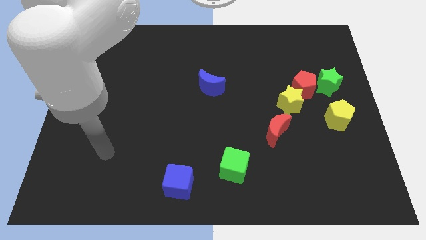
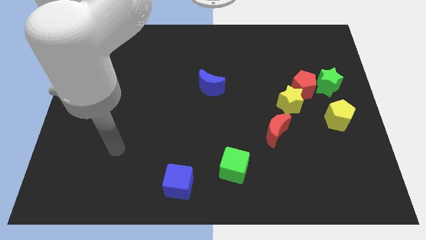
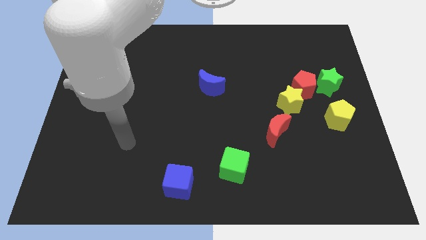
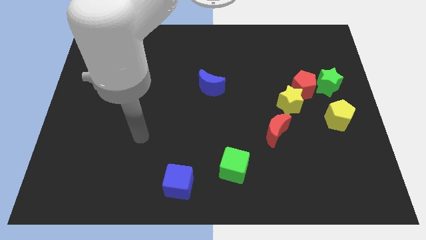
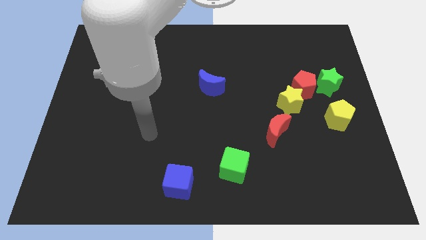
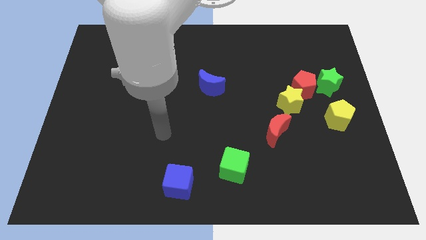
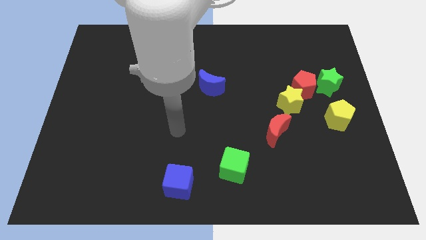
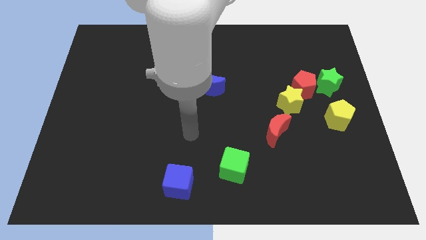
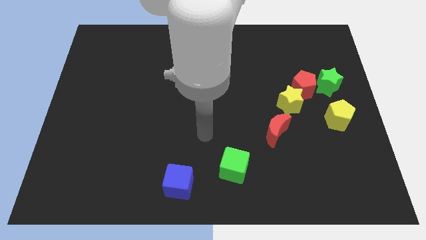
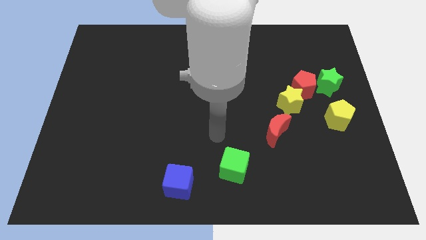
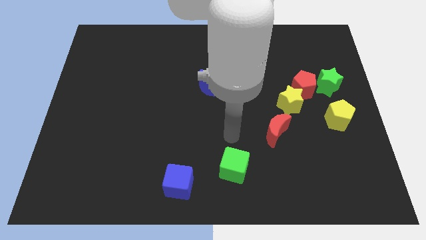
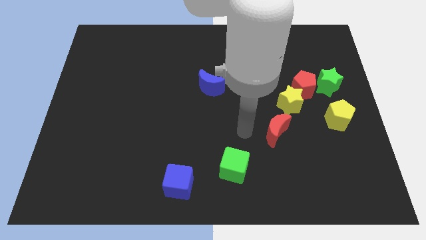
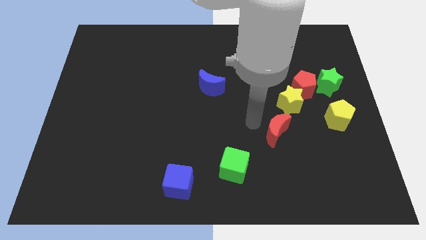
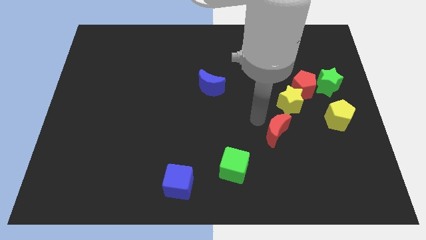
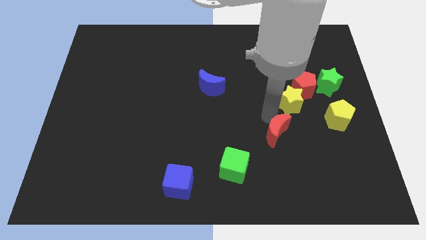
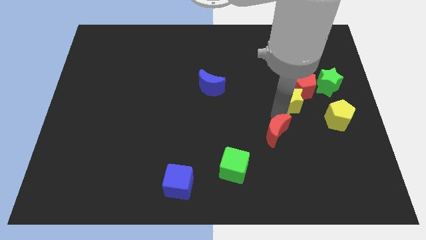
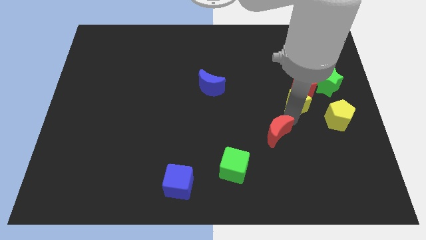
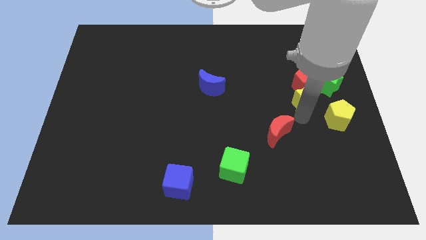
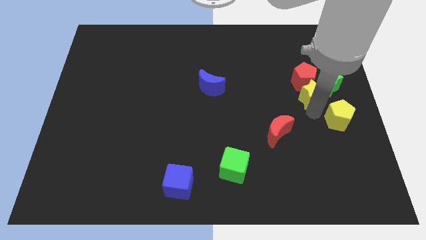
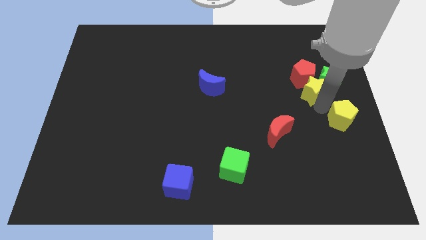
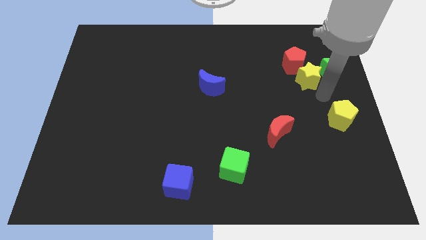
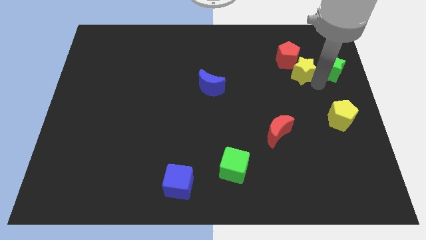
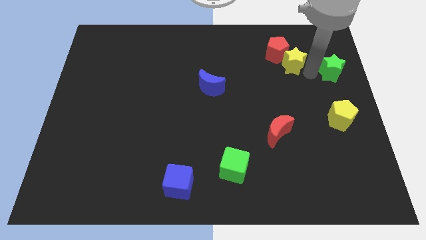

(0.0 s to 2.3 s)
separate the red pentagon from the yellow star and green star

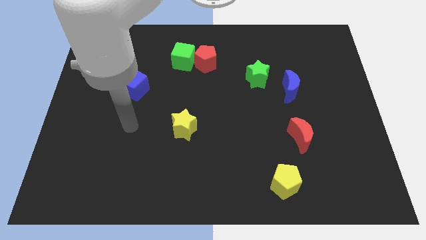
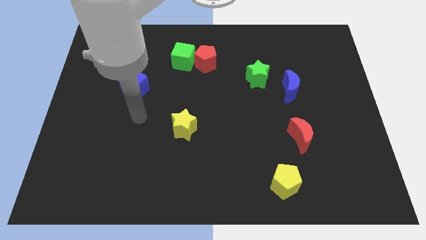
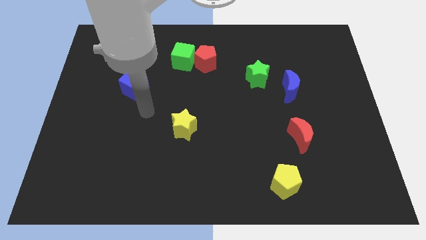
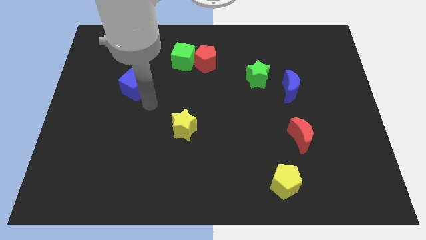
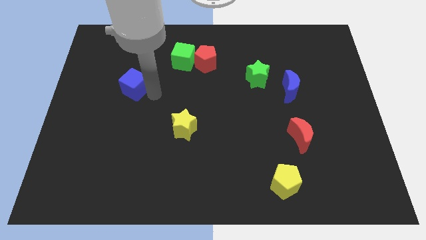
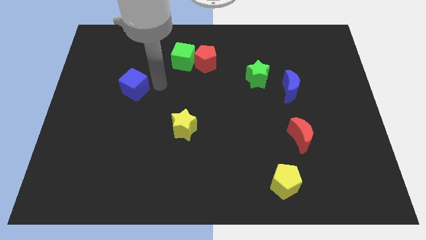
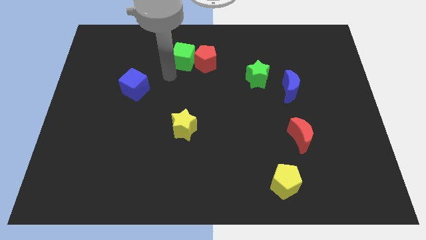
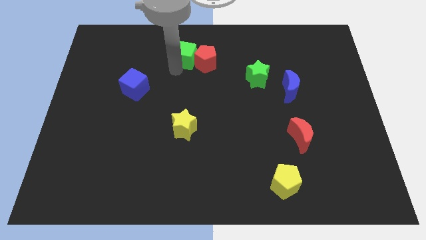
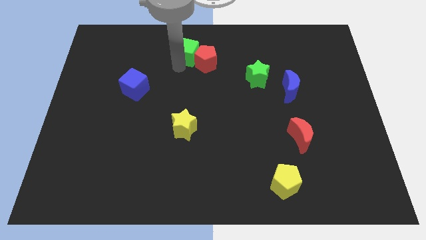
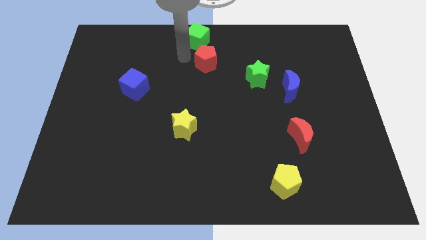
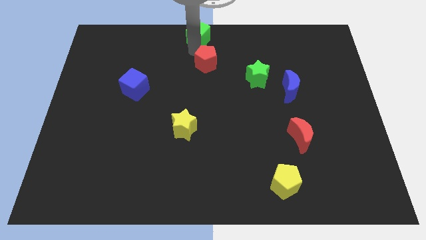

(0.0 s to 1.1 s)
separate the red pentagon from the green cube

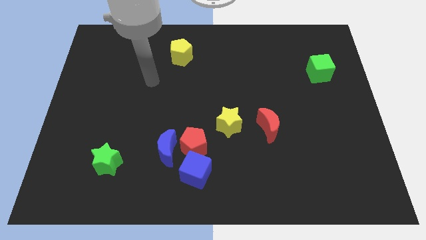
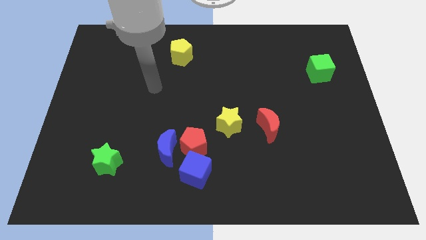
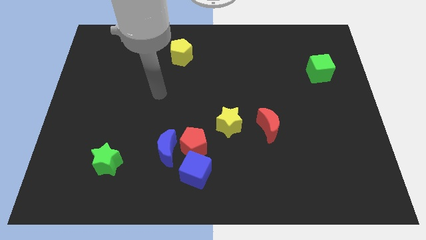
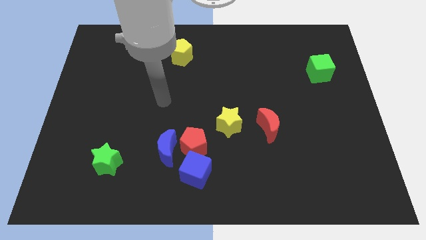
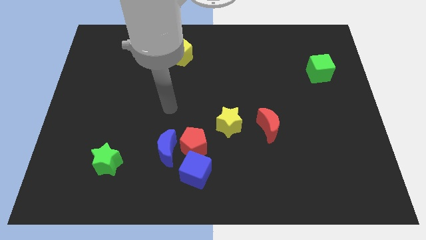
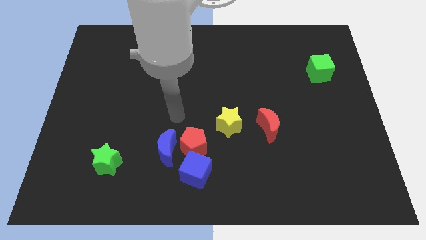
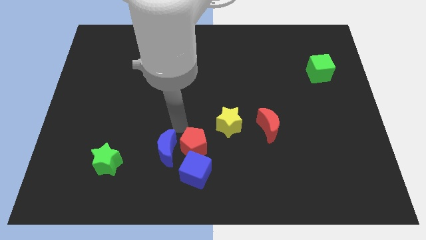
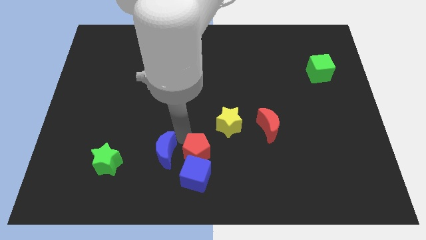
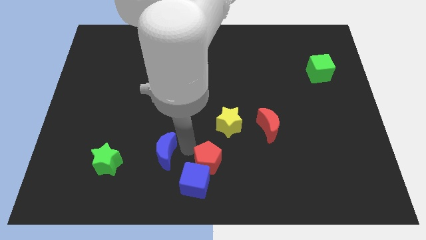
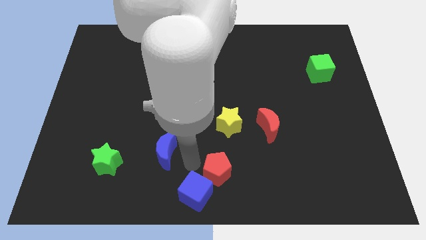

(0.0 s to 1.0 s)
pull the blue moon apart from the red pentagon and blue cube

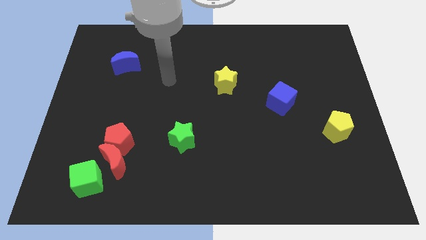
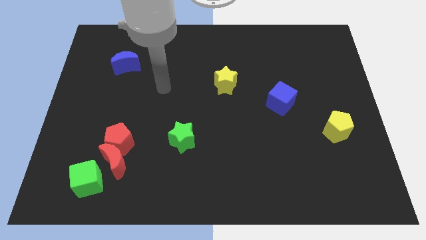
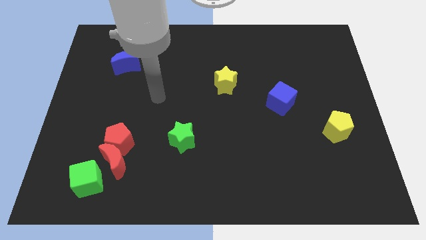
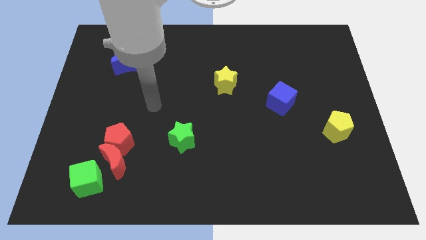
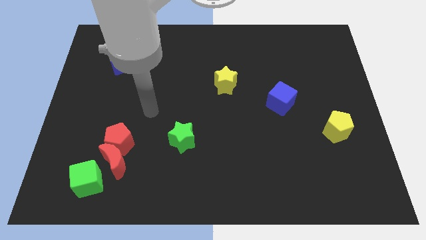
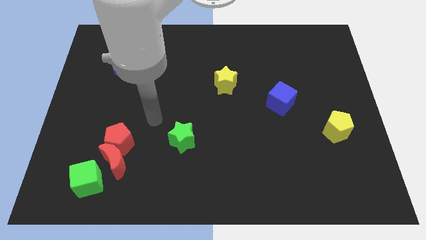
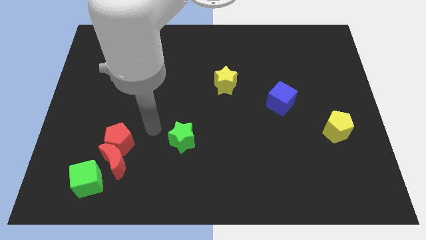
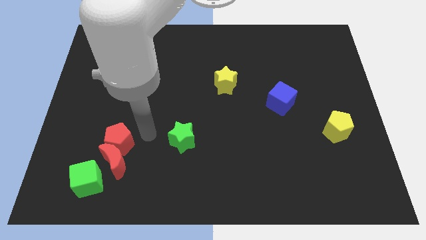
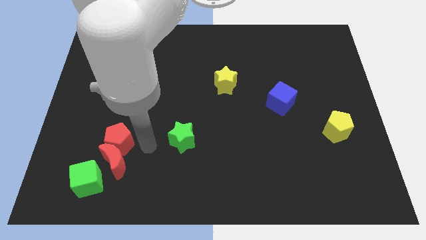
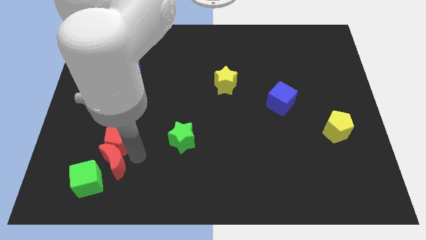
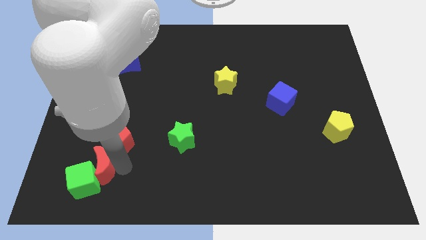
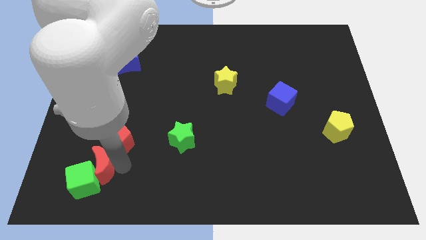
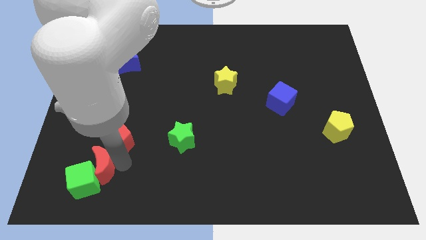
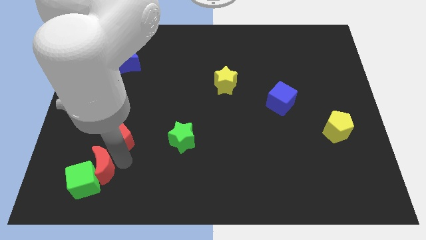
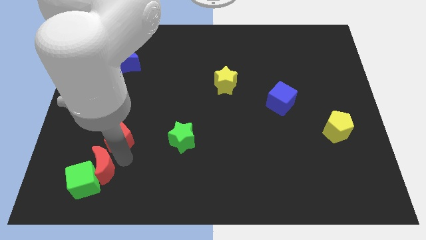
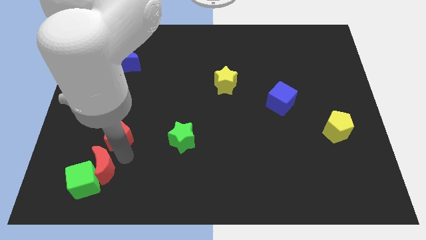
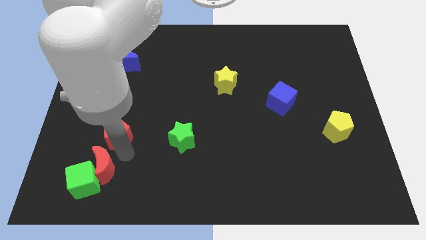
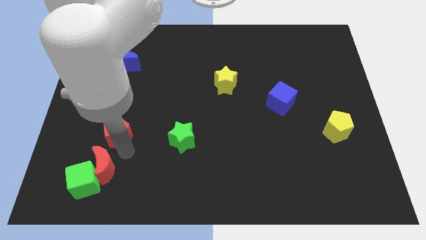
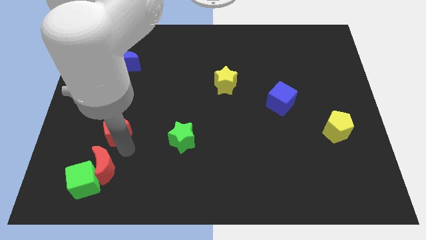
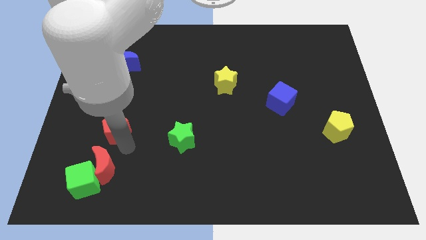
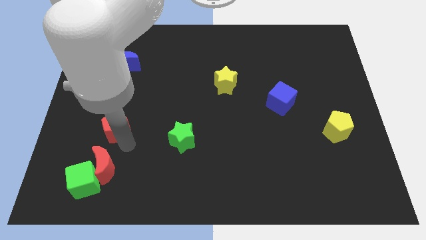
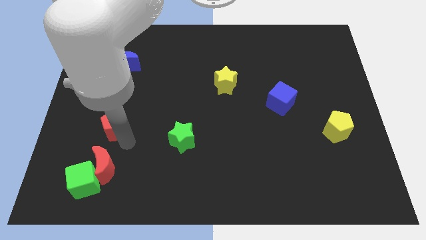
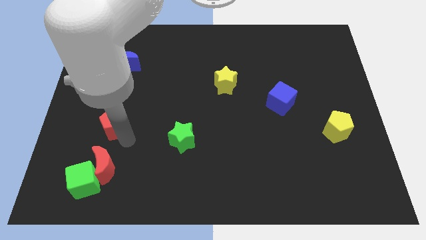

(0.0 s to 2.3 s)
separate the red pentagon from the red moon

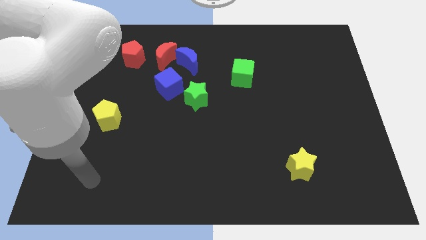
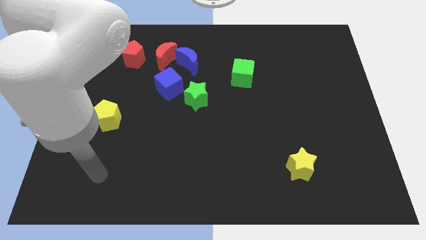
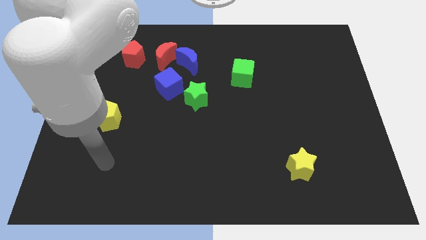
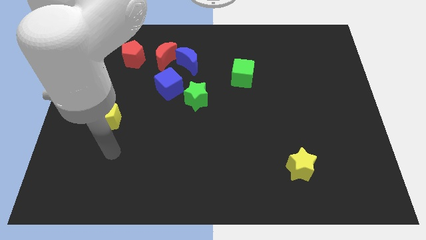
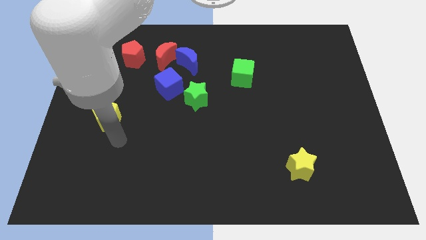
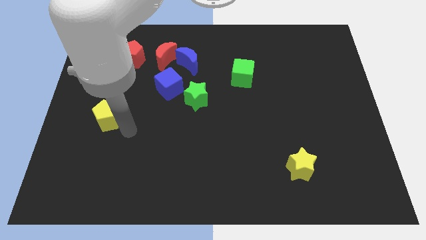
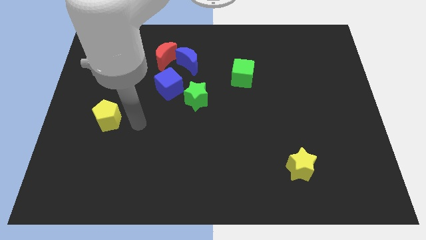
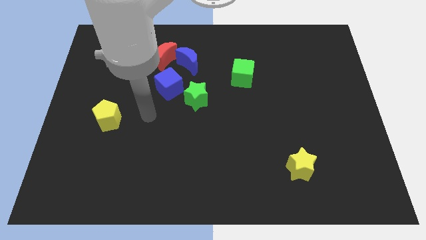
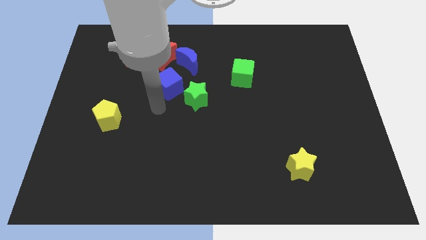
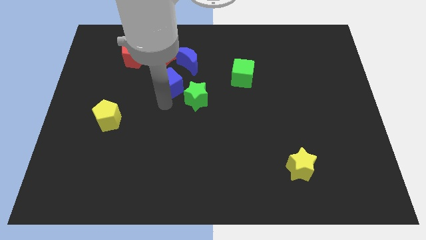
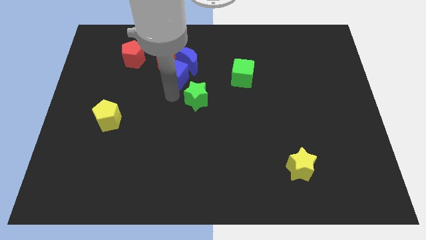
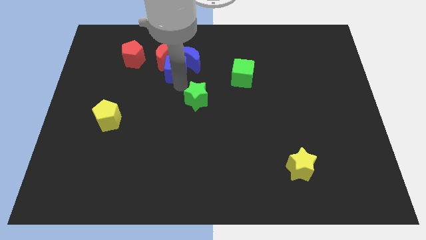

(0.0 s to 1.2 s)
pull the green star apart from the blue cube

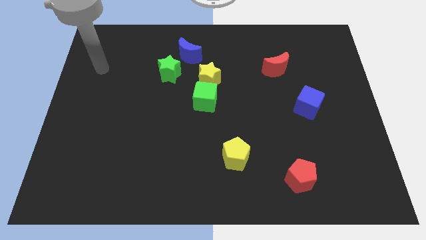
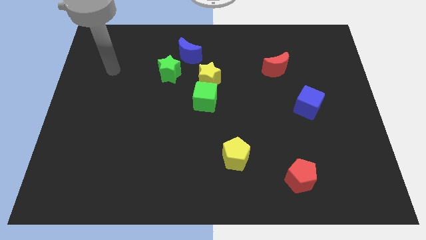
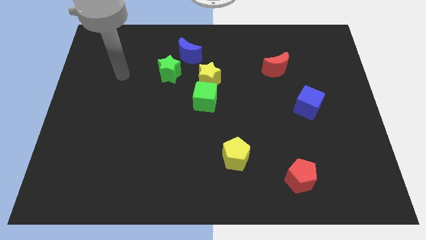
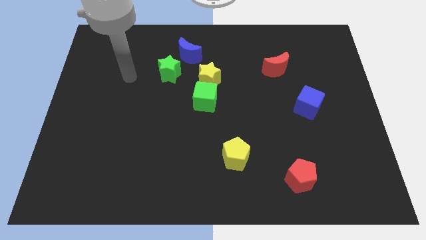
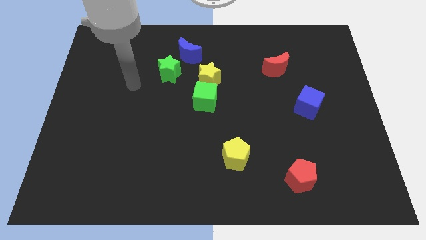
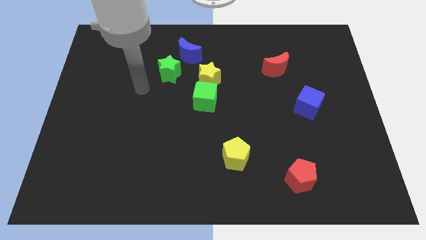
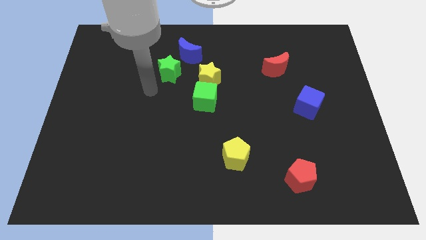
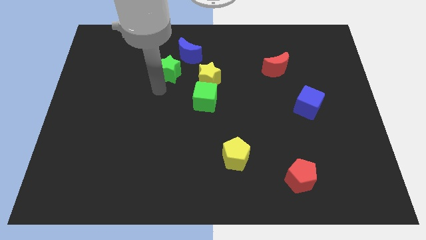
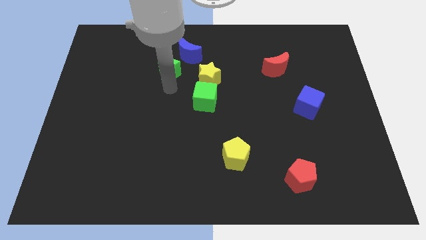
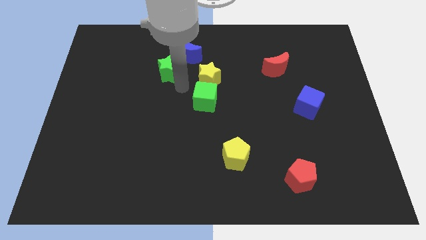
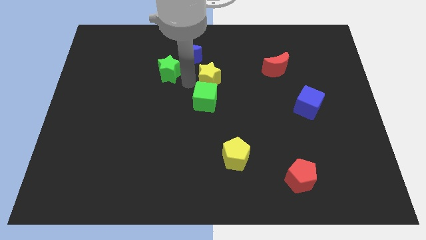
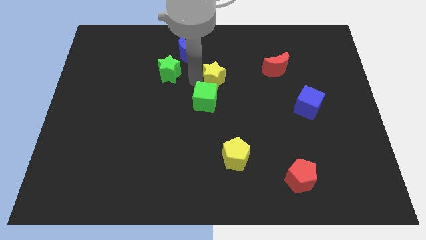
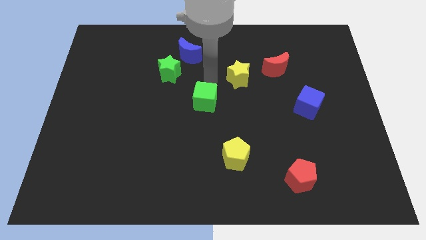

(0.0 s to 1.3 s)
move the green cube away from the yellow star
